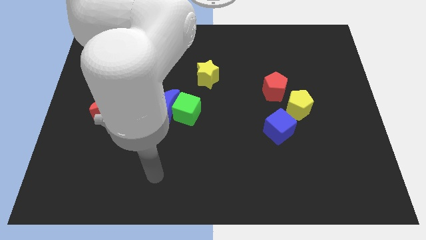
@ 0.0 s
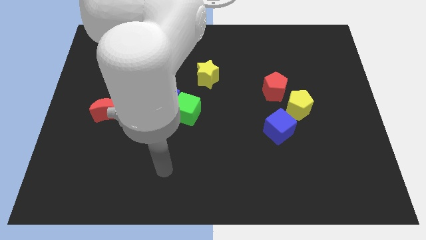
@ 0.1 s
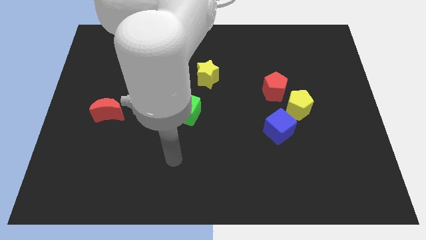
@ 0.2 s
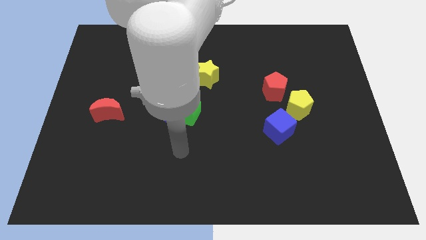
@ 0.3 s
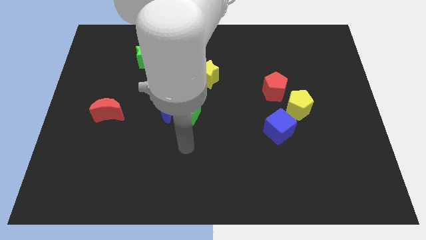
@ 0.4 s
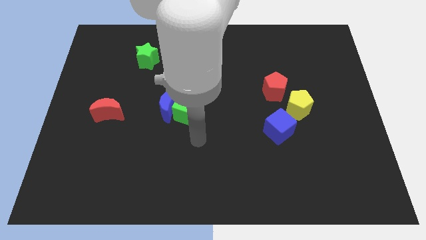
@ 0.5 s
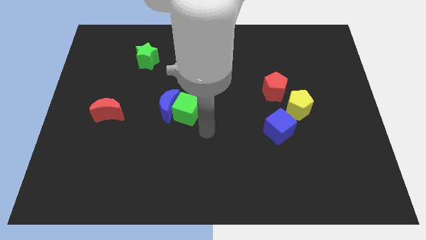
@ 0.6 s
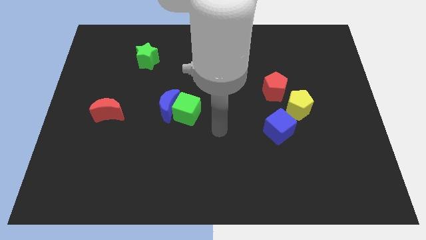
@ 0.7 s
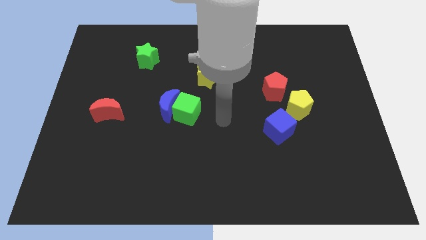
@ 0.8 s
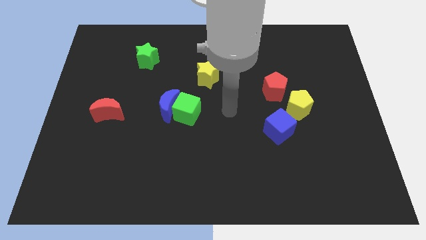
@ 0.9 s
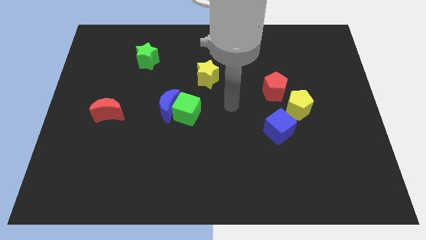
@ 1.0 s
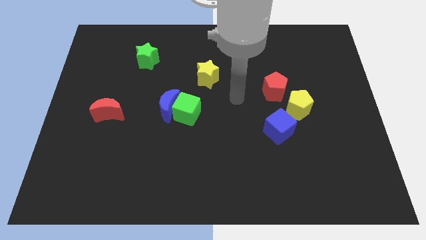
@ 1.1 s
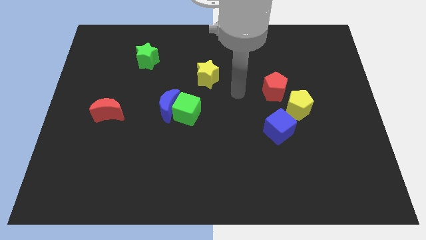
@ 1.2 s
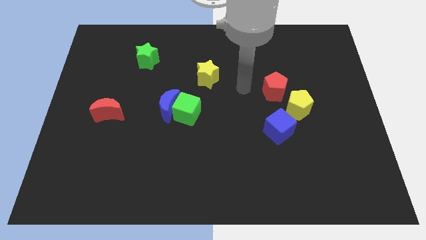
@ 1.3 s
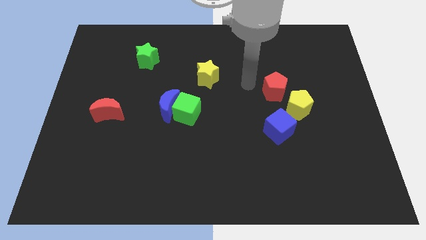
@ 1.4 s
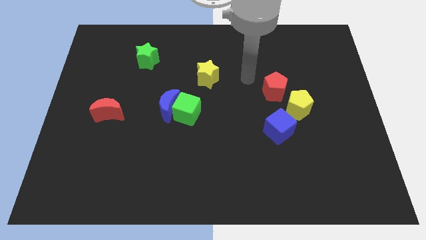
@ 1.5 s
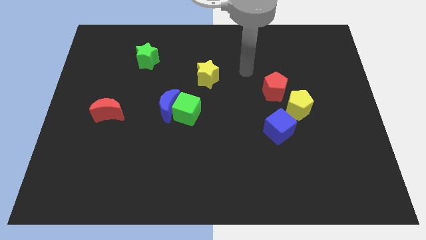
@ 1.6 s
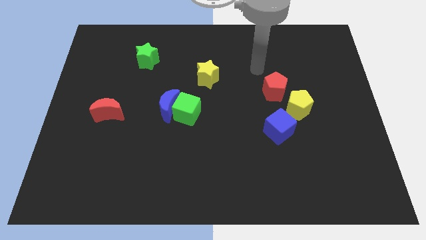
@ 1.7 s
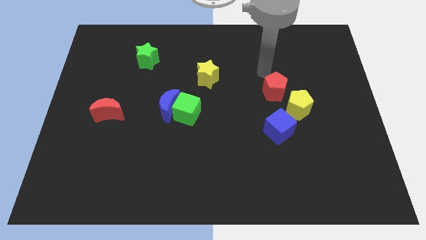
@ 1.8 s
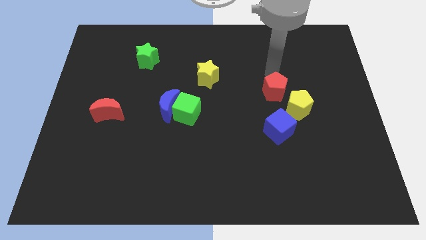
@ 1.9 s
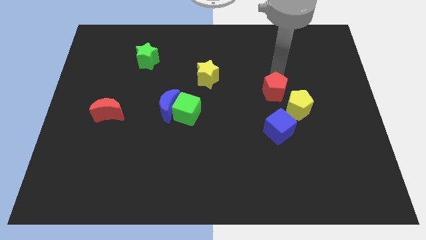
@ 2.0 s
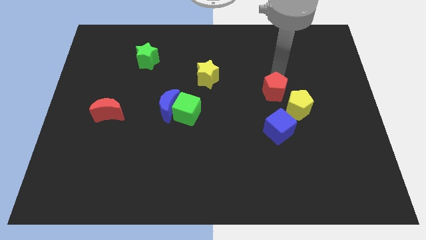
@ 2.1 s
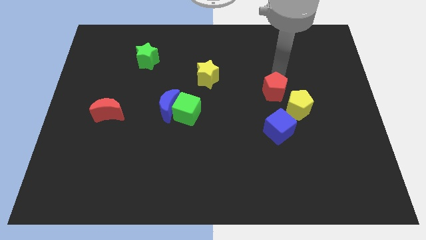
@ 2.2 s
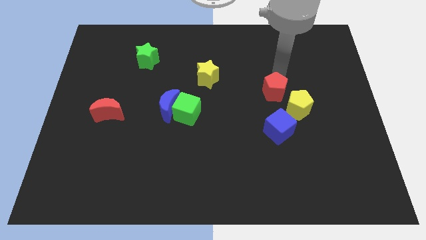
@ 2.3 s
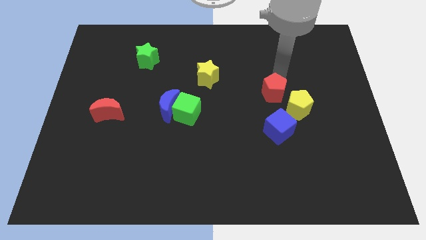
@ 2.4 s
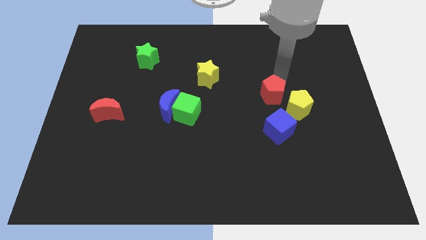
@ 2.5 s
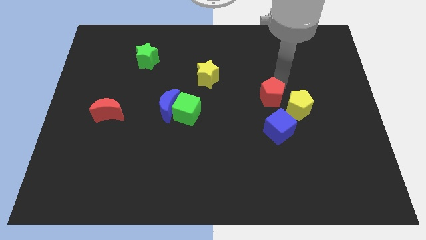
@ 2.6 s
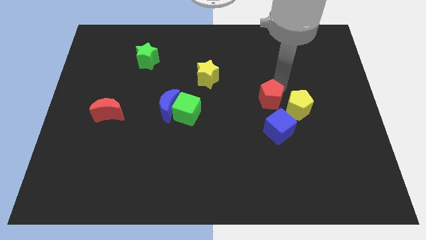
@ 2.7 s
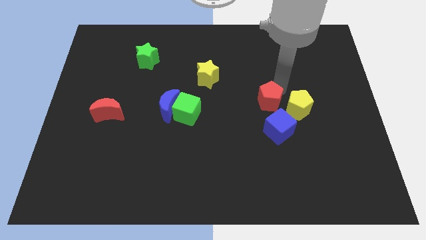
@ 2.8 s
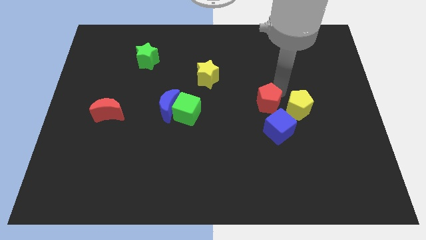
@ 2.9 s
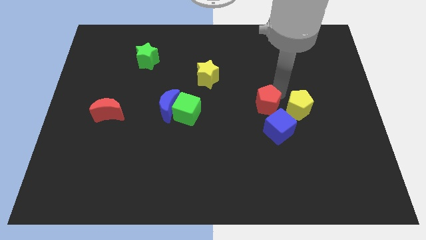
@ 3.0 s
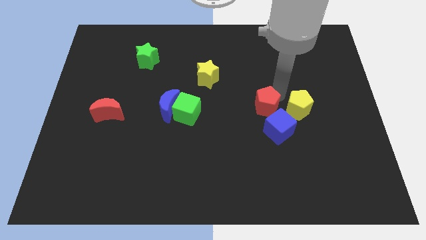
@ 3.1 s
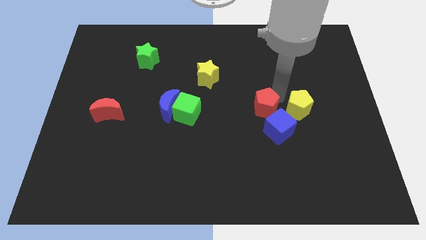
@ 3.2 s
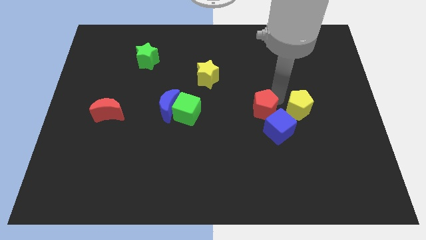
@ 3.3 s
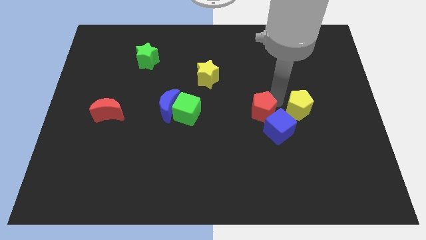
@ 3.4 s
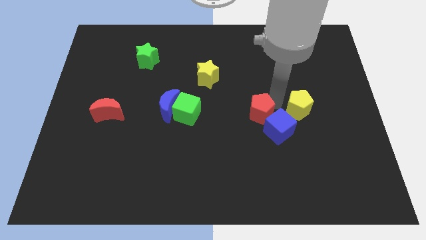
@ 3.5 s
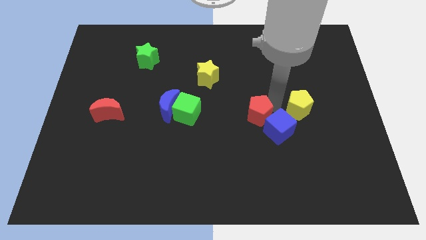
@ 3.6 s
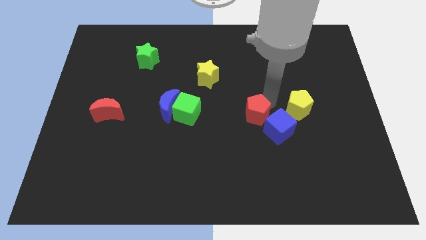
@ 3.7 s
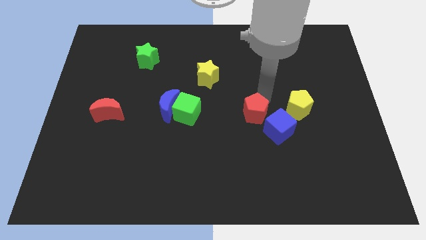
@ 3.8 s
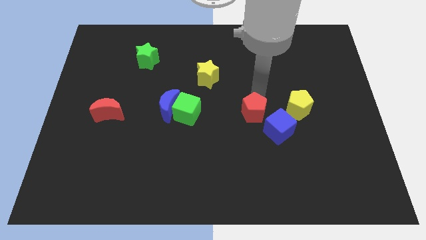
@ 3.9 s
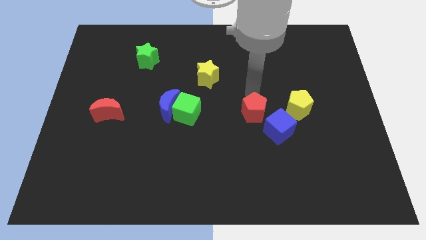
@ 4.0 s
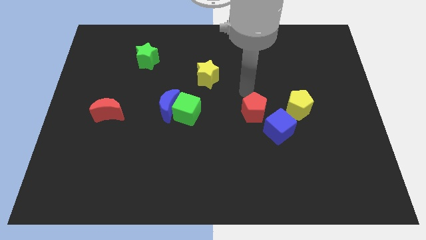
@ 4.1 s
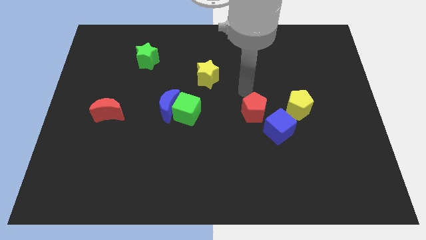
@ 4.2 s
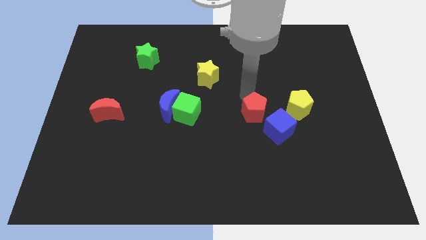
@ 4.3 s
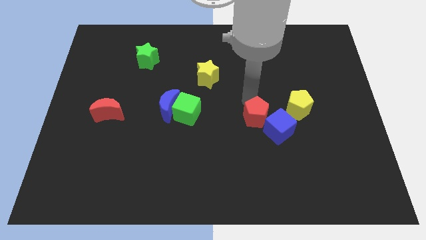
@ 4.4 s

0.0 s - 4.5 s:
slide the red pentagon down slightly

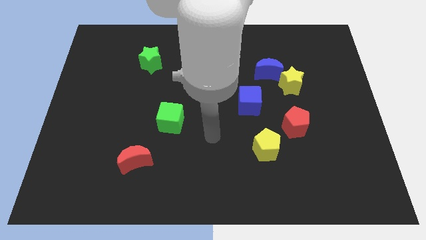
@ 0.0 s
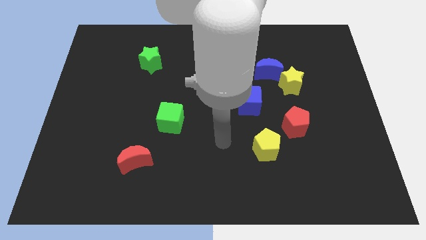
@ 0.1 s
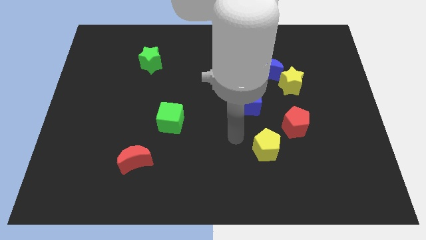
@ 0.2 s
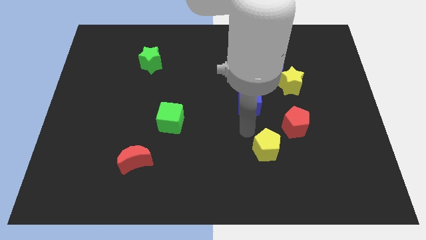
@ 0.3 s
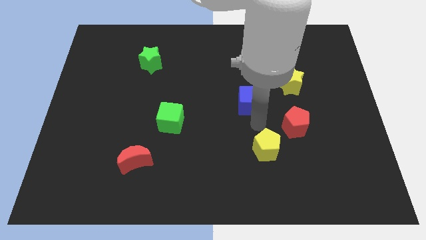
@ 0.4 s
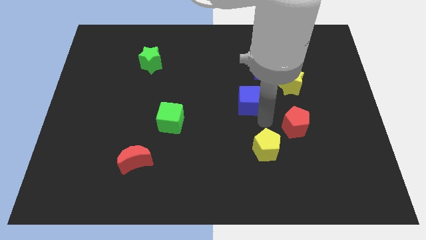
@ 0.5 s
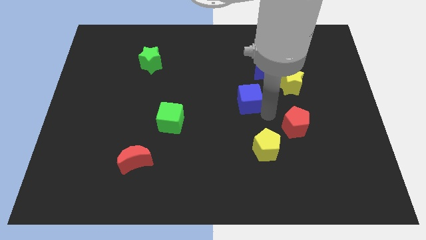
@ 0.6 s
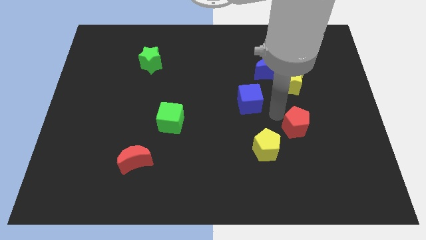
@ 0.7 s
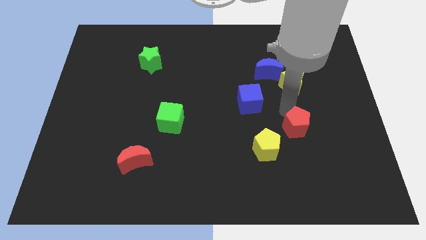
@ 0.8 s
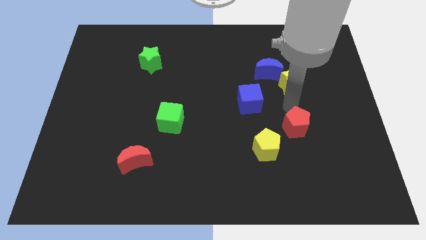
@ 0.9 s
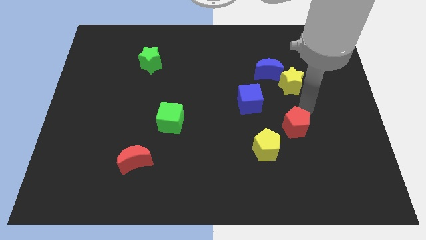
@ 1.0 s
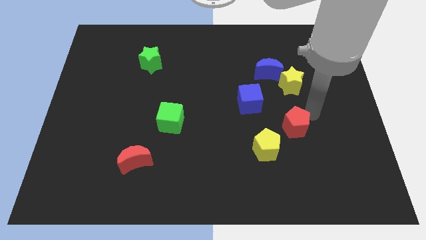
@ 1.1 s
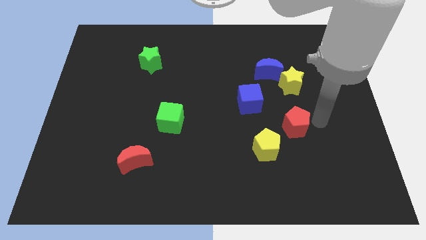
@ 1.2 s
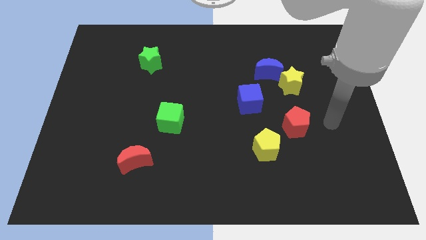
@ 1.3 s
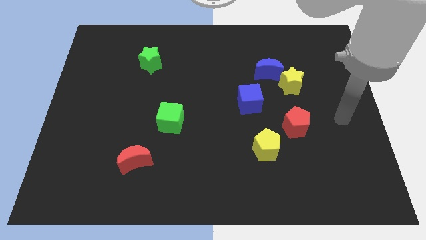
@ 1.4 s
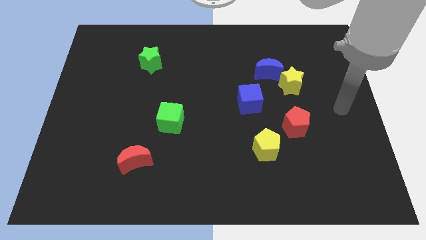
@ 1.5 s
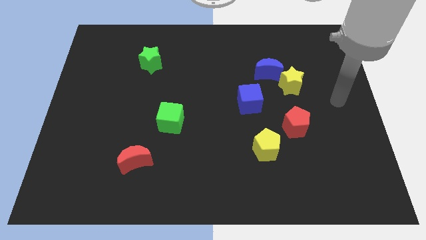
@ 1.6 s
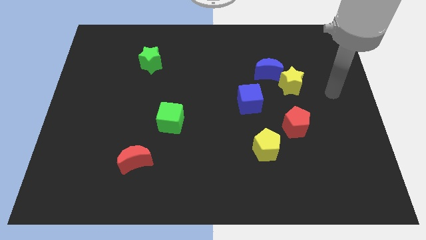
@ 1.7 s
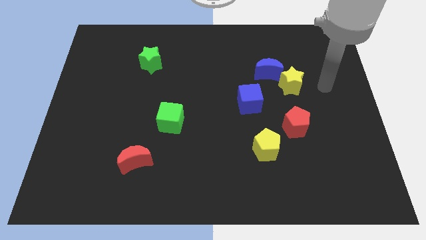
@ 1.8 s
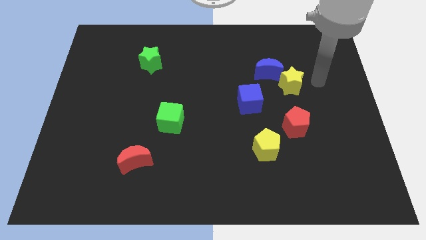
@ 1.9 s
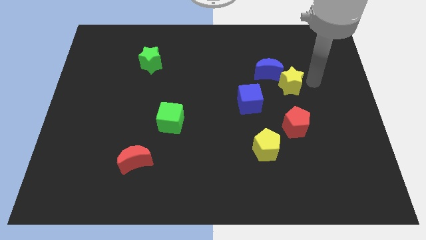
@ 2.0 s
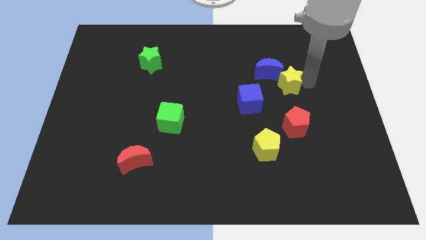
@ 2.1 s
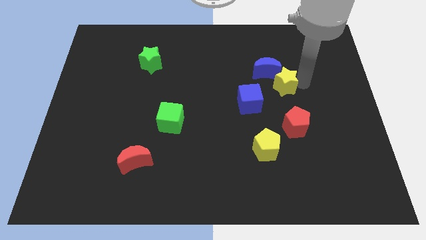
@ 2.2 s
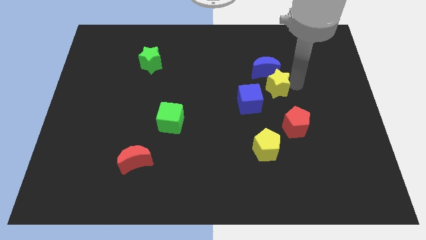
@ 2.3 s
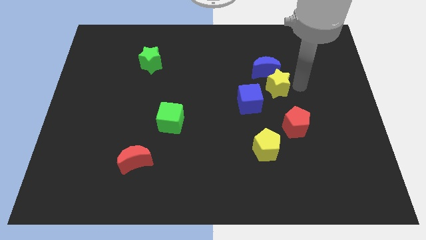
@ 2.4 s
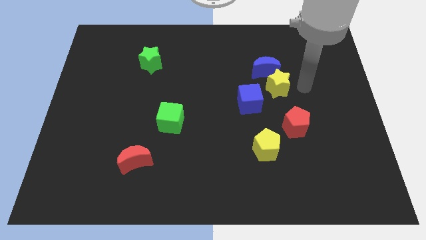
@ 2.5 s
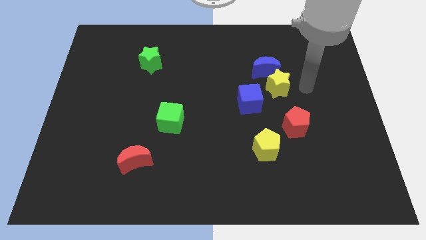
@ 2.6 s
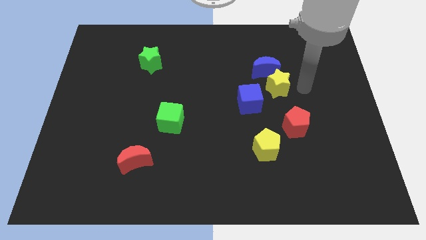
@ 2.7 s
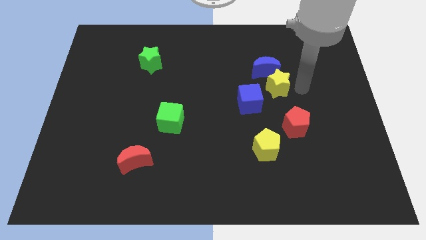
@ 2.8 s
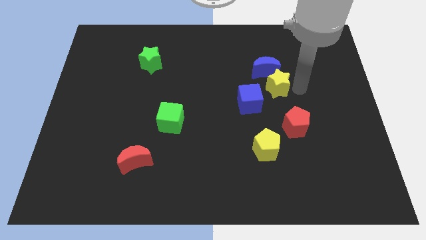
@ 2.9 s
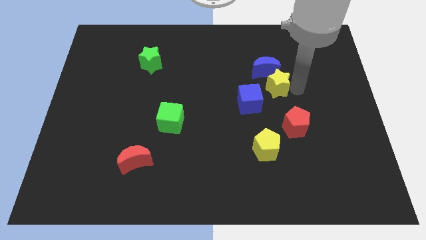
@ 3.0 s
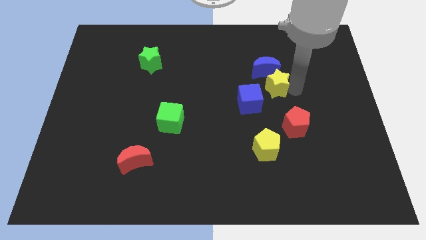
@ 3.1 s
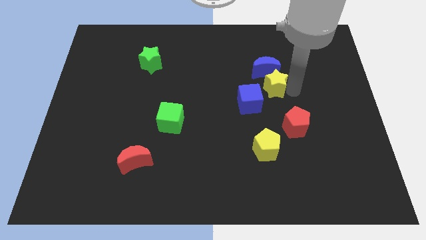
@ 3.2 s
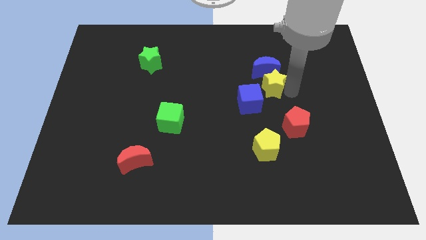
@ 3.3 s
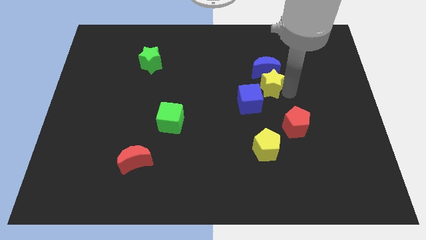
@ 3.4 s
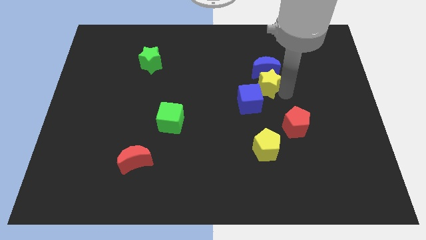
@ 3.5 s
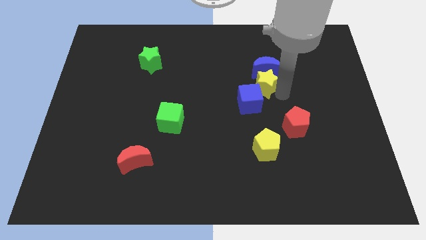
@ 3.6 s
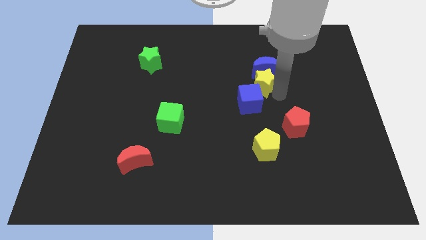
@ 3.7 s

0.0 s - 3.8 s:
push the yellow star slightly to the left

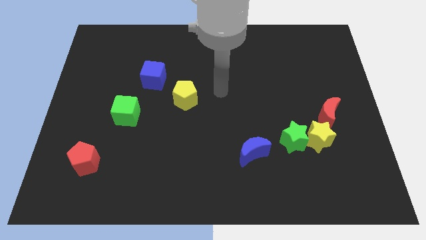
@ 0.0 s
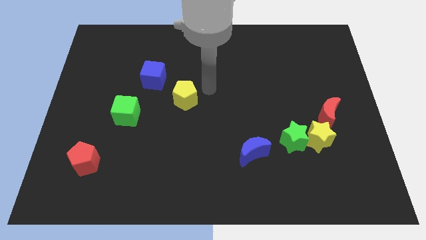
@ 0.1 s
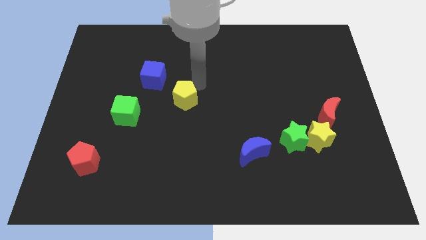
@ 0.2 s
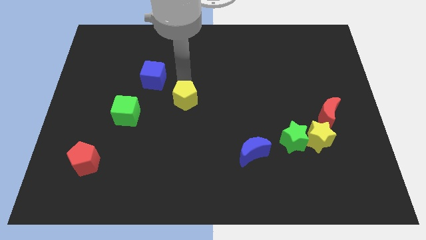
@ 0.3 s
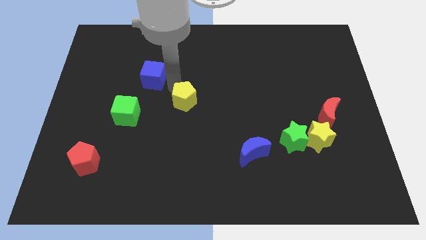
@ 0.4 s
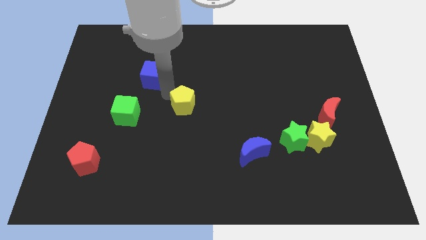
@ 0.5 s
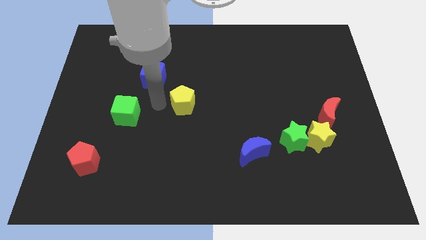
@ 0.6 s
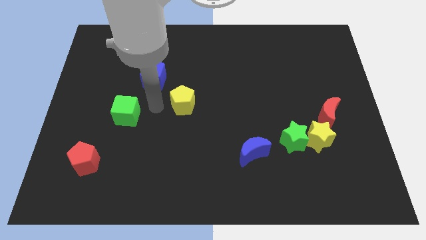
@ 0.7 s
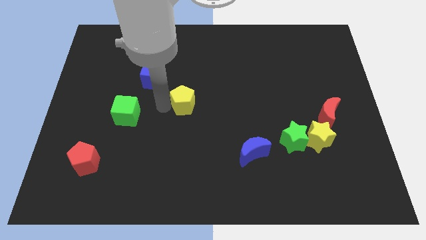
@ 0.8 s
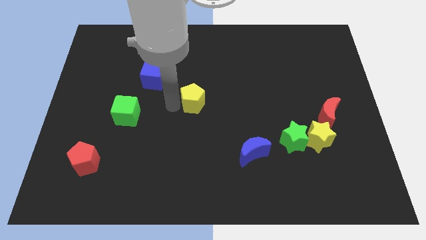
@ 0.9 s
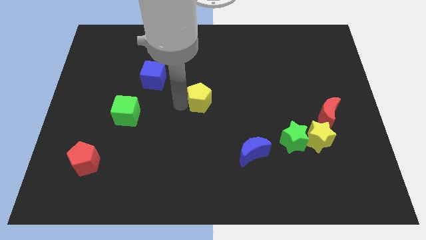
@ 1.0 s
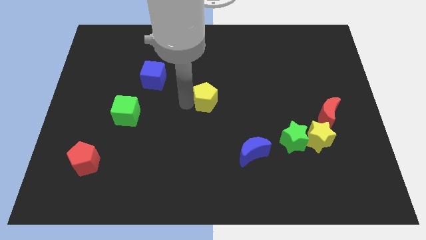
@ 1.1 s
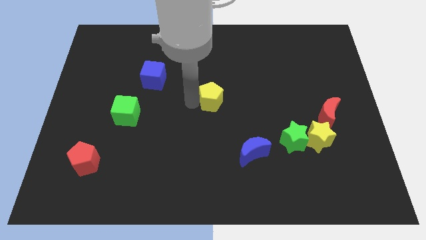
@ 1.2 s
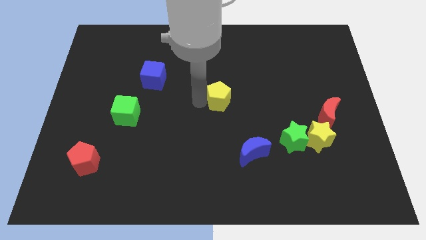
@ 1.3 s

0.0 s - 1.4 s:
slightly slide the yellow pentagon right
